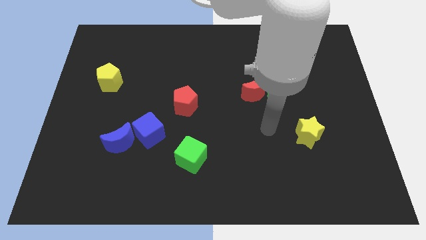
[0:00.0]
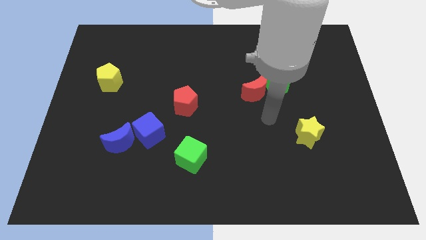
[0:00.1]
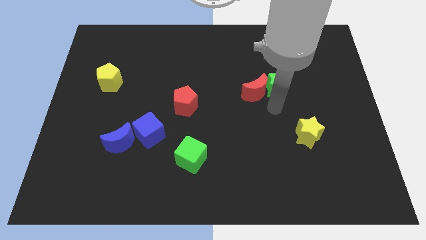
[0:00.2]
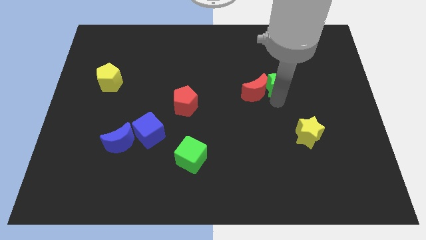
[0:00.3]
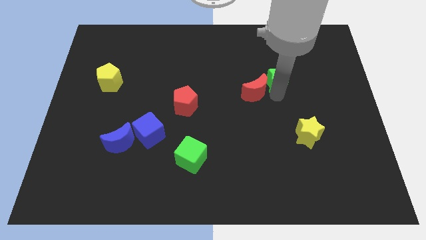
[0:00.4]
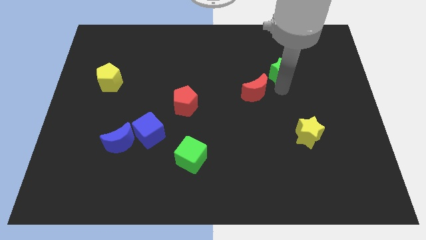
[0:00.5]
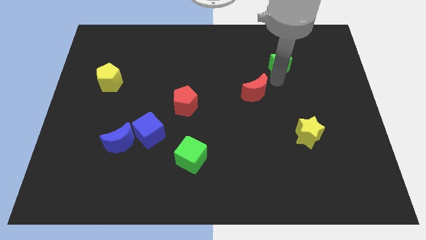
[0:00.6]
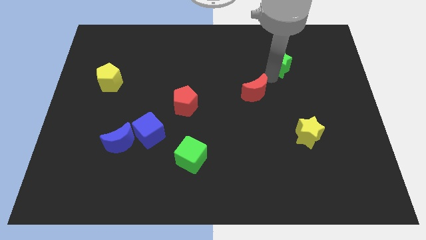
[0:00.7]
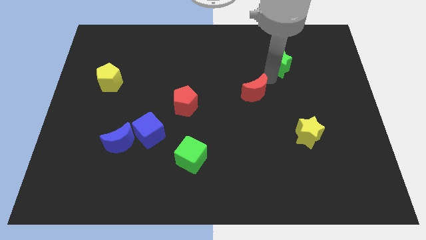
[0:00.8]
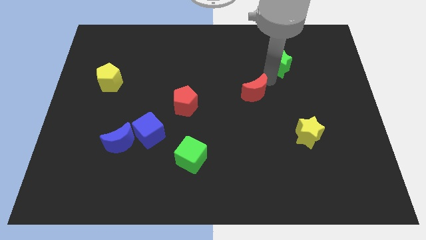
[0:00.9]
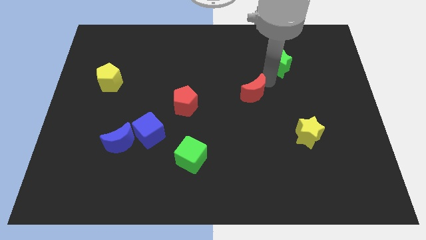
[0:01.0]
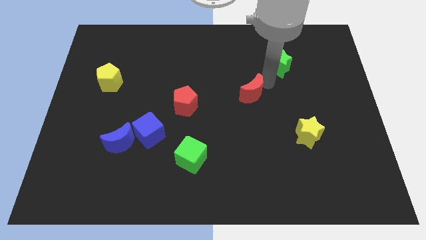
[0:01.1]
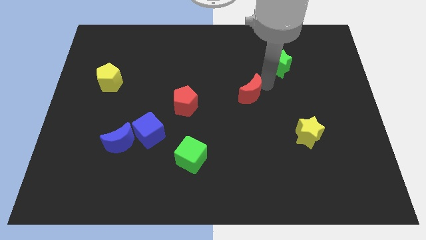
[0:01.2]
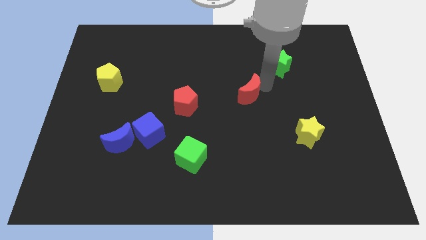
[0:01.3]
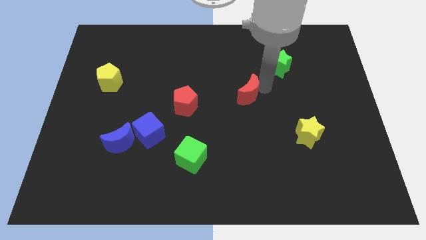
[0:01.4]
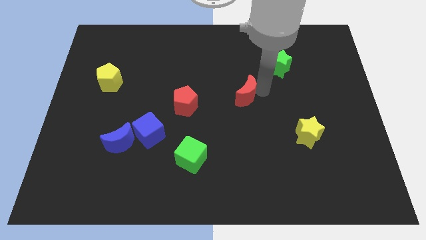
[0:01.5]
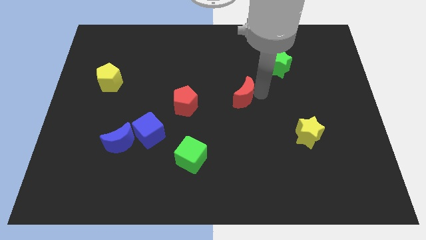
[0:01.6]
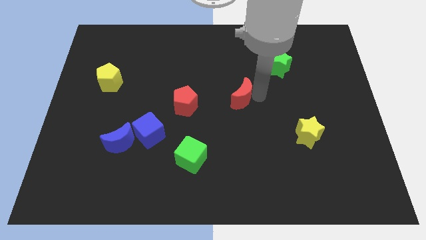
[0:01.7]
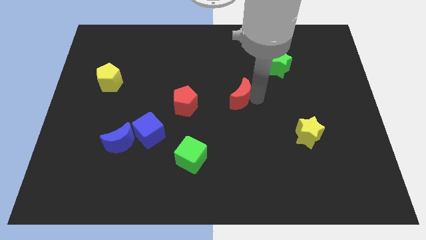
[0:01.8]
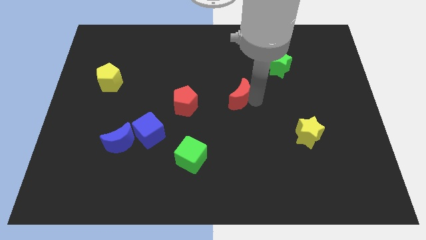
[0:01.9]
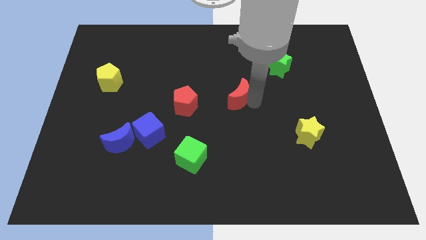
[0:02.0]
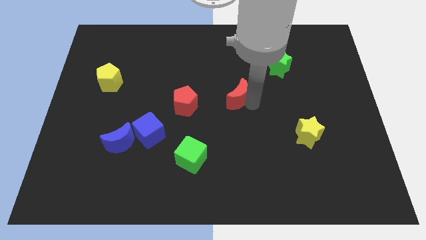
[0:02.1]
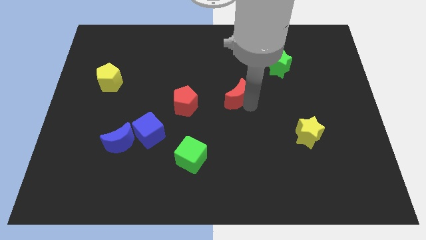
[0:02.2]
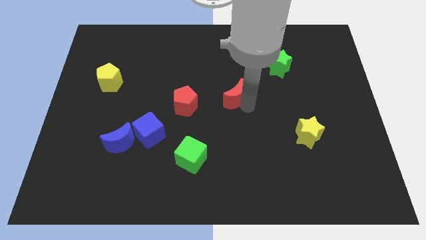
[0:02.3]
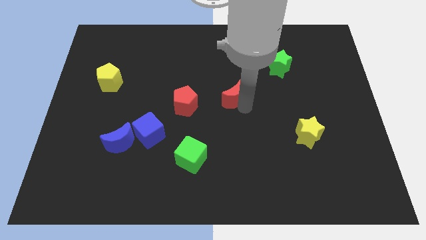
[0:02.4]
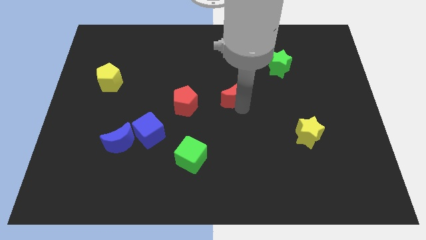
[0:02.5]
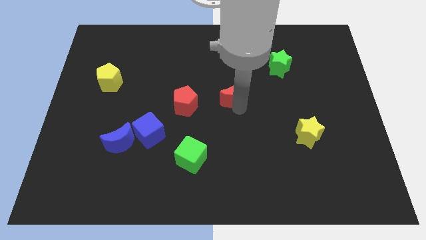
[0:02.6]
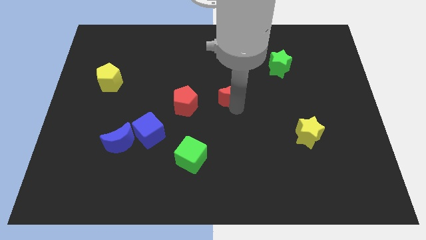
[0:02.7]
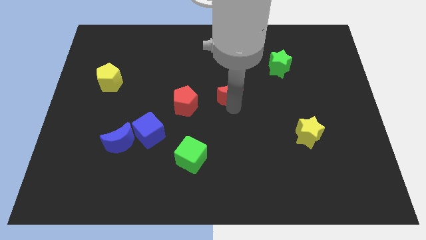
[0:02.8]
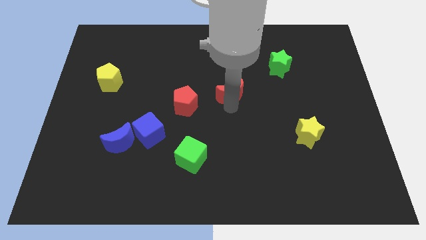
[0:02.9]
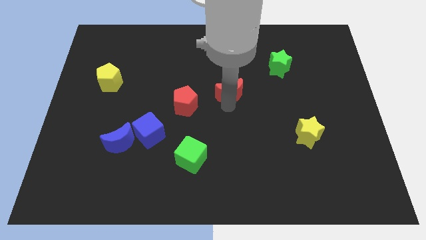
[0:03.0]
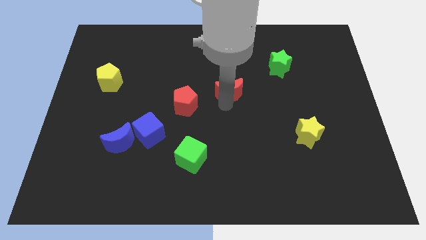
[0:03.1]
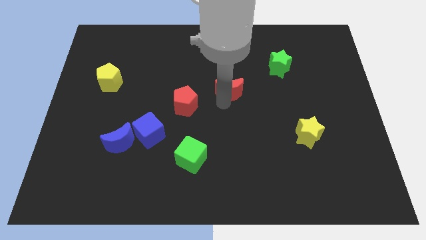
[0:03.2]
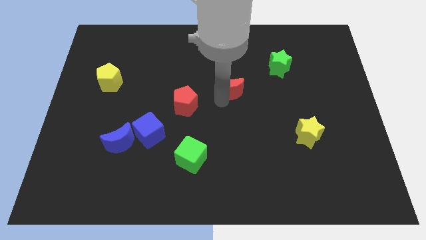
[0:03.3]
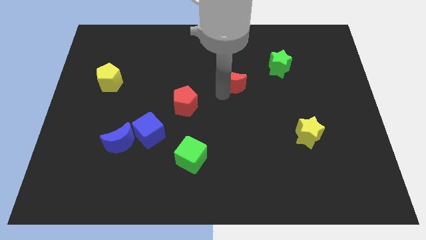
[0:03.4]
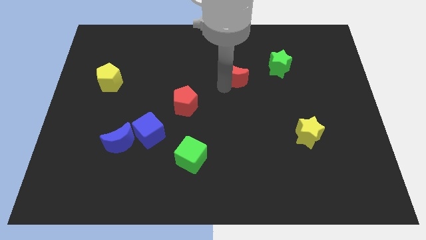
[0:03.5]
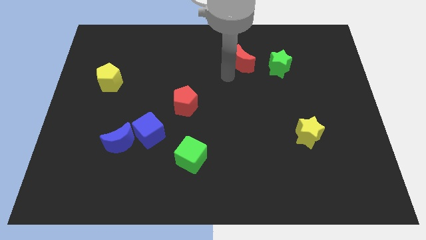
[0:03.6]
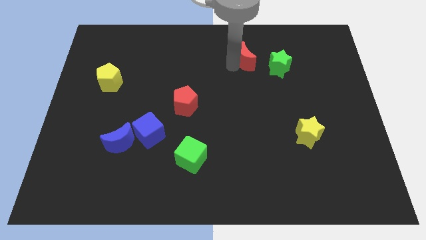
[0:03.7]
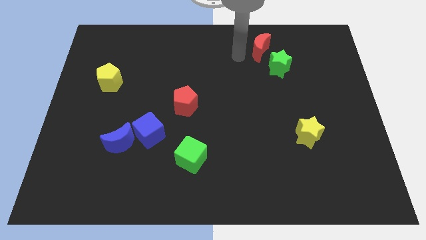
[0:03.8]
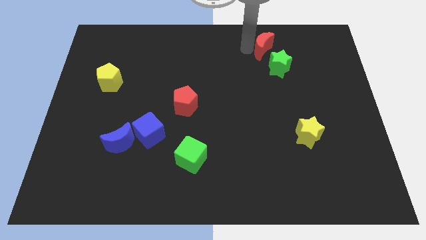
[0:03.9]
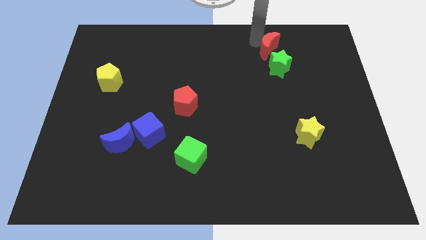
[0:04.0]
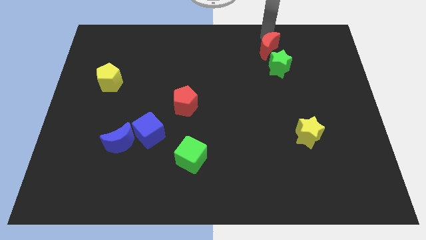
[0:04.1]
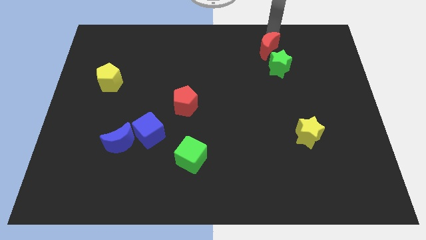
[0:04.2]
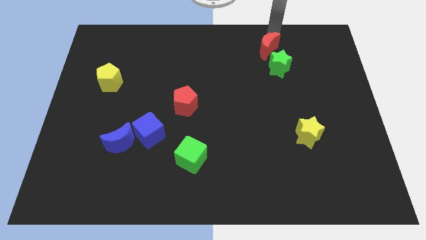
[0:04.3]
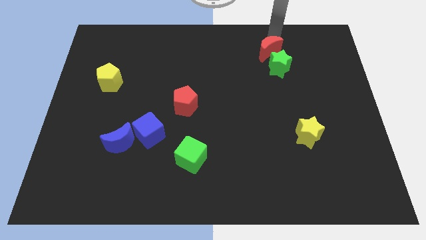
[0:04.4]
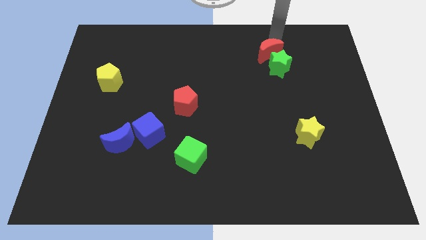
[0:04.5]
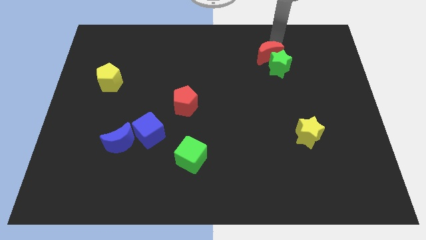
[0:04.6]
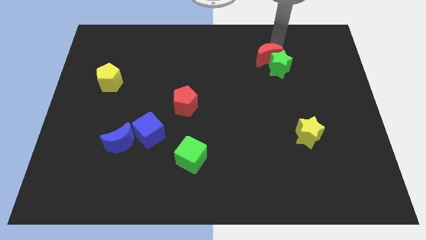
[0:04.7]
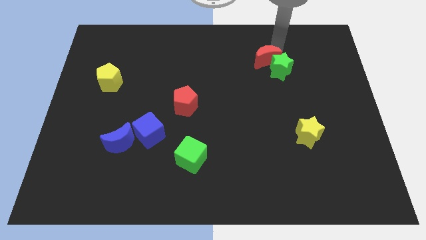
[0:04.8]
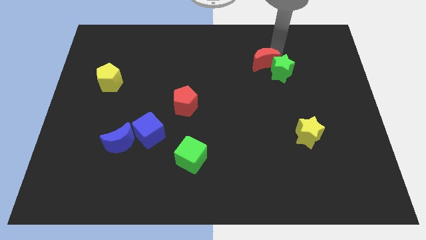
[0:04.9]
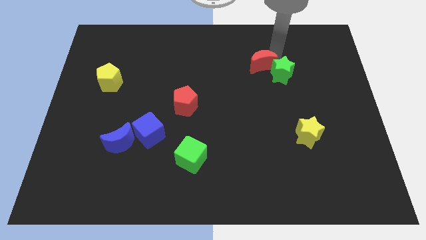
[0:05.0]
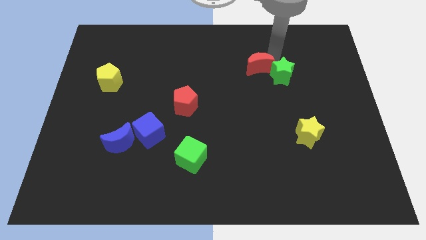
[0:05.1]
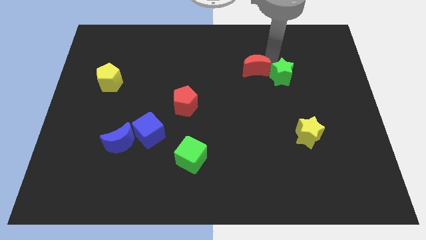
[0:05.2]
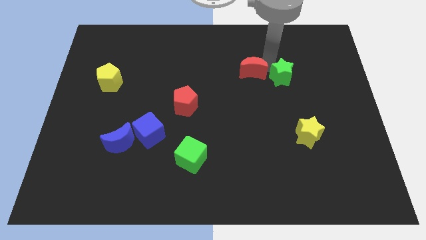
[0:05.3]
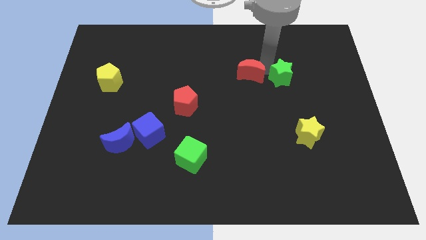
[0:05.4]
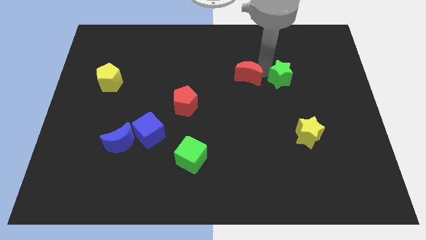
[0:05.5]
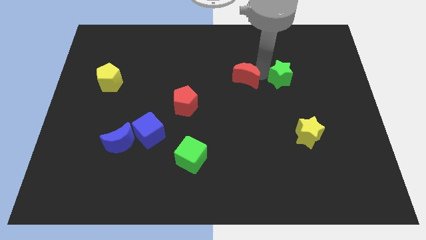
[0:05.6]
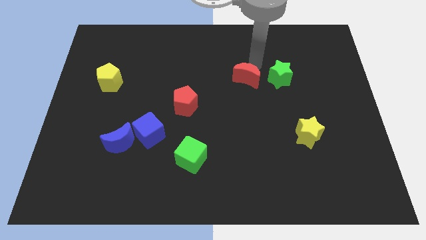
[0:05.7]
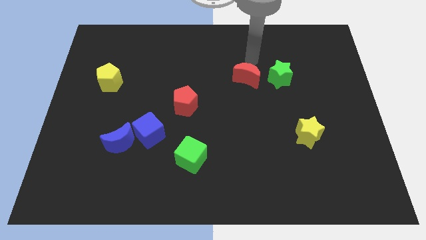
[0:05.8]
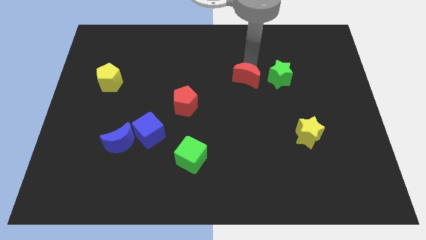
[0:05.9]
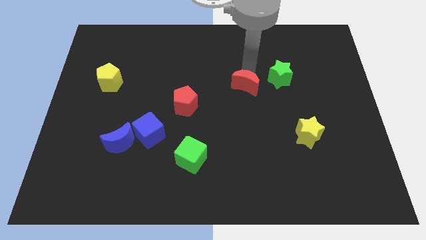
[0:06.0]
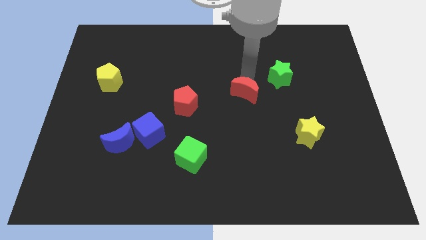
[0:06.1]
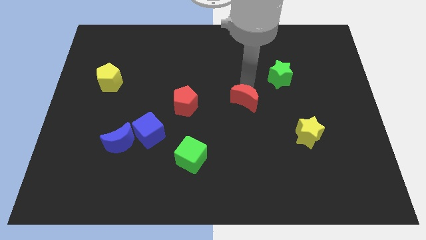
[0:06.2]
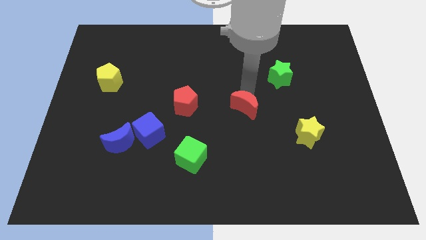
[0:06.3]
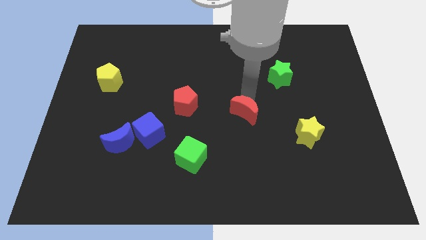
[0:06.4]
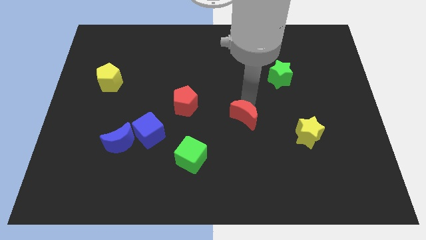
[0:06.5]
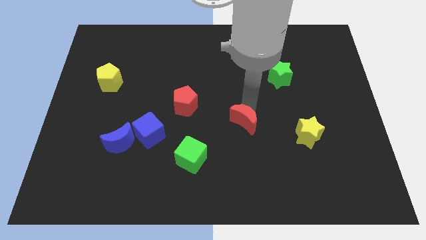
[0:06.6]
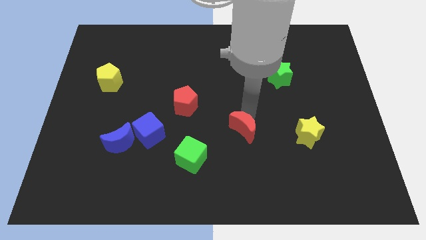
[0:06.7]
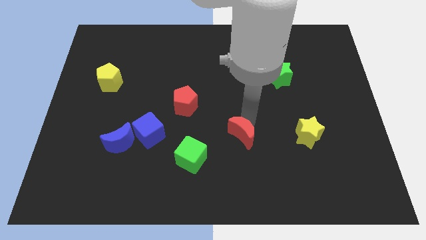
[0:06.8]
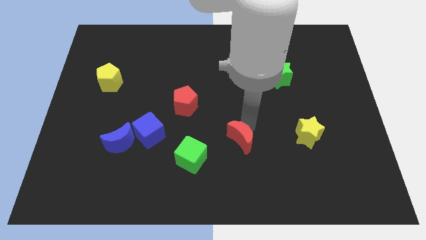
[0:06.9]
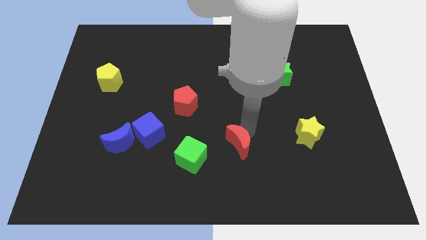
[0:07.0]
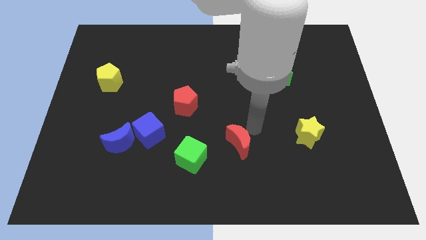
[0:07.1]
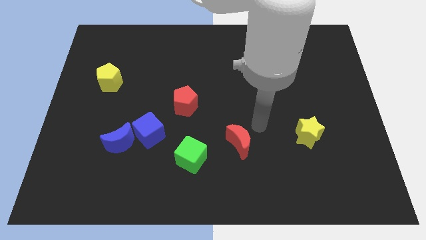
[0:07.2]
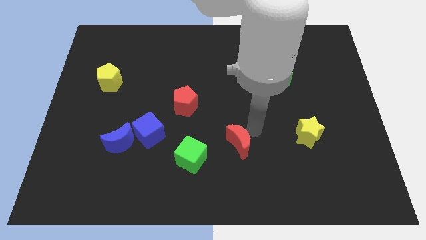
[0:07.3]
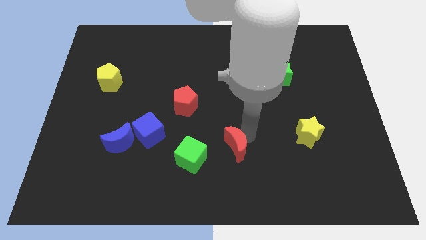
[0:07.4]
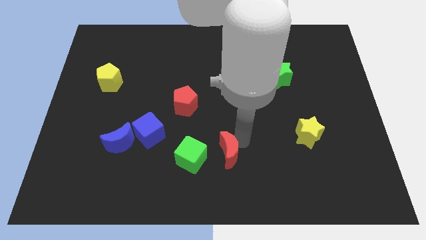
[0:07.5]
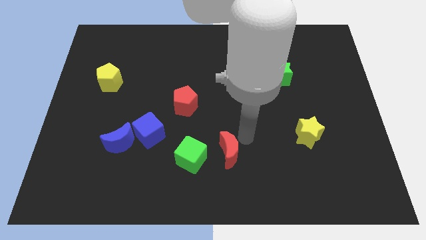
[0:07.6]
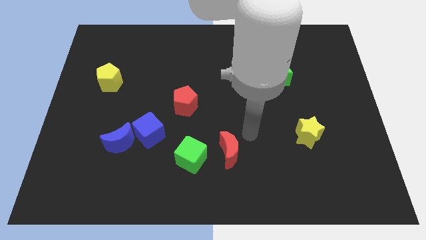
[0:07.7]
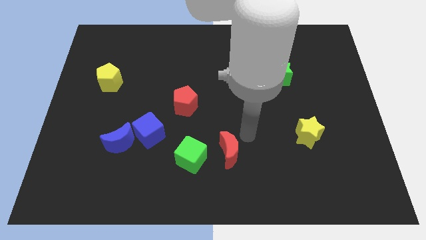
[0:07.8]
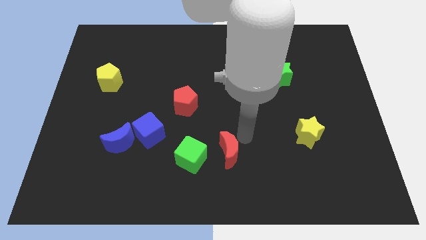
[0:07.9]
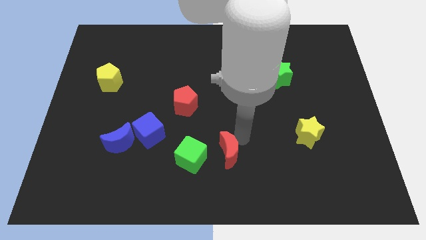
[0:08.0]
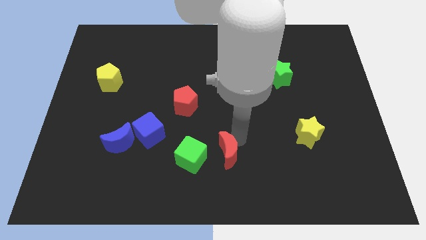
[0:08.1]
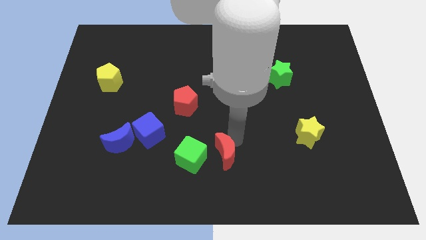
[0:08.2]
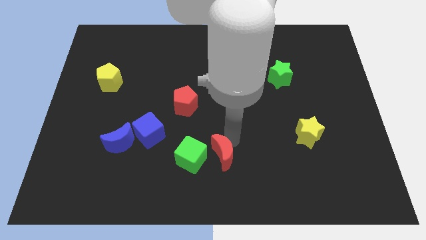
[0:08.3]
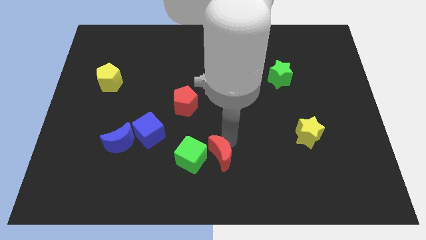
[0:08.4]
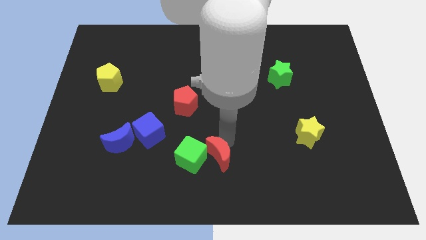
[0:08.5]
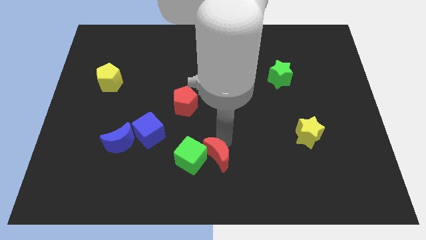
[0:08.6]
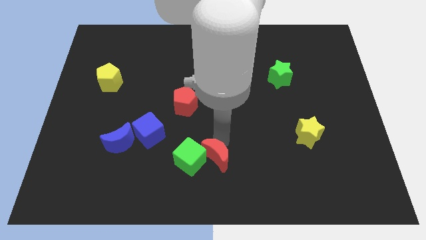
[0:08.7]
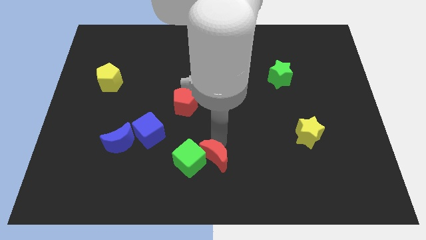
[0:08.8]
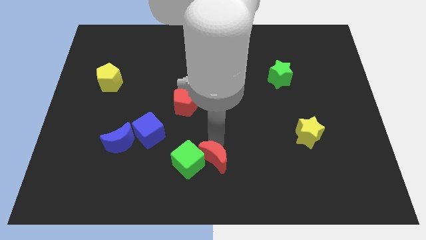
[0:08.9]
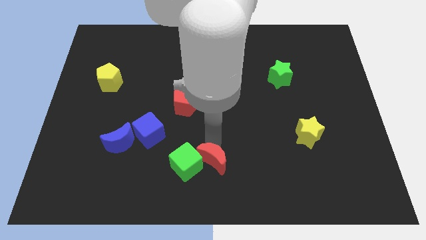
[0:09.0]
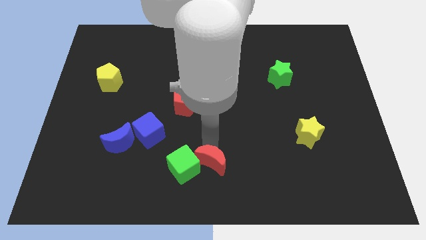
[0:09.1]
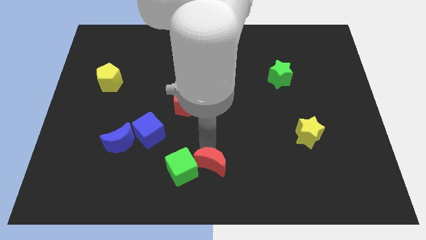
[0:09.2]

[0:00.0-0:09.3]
slide the red moon downwards and to the left
